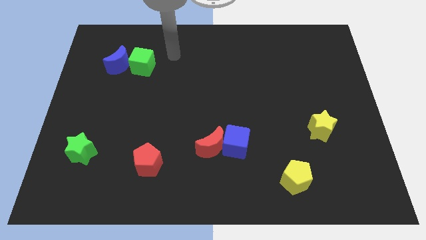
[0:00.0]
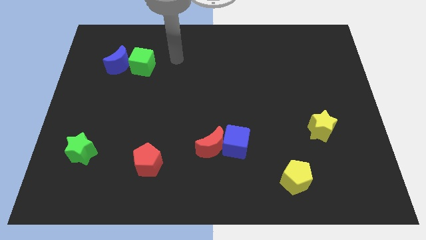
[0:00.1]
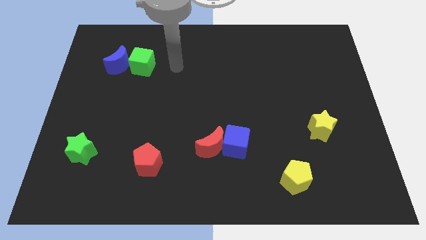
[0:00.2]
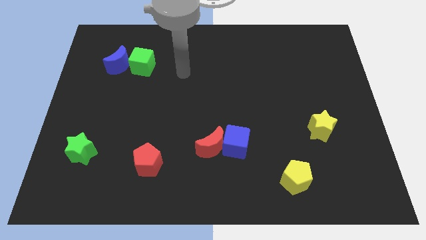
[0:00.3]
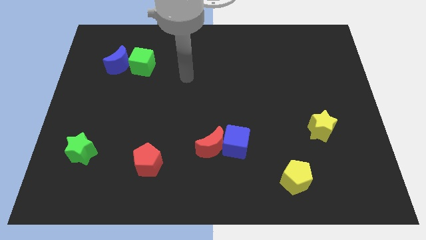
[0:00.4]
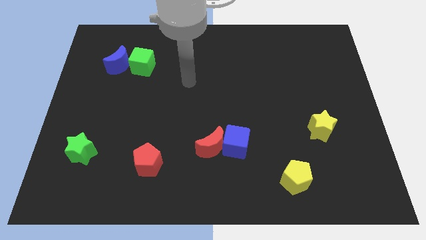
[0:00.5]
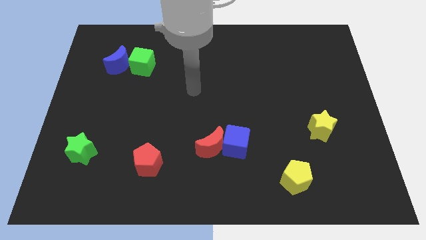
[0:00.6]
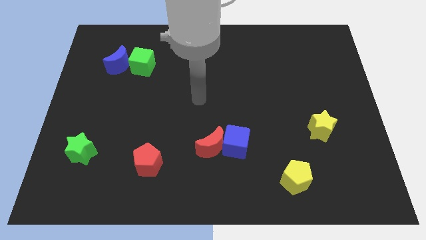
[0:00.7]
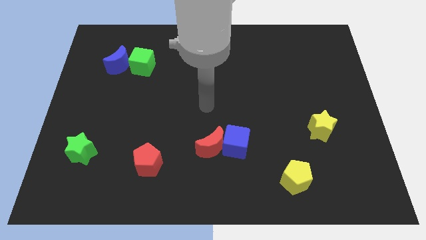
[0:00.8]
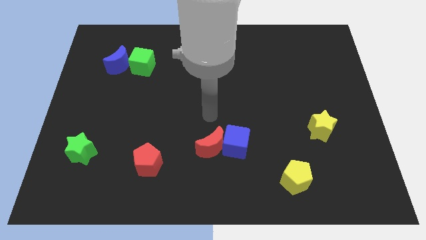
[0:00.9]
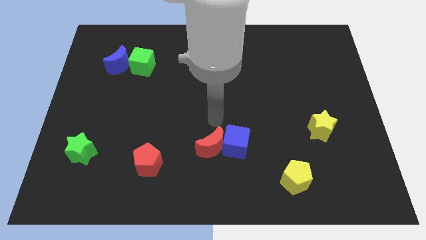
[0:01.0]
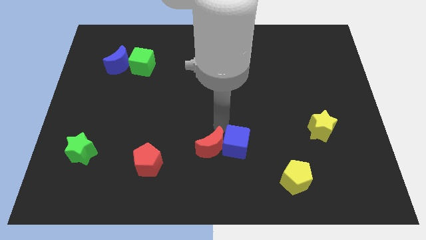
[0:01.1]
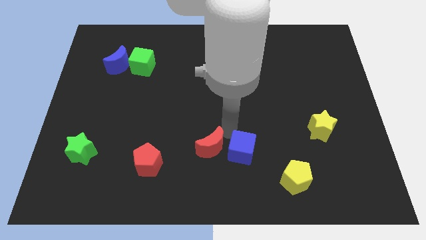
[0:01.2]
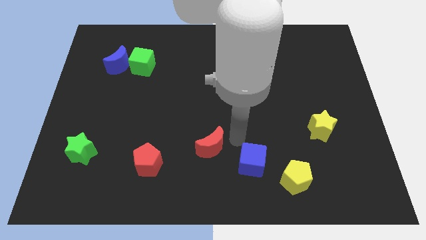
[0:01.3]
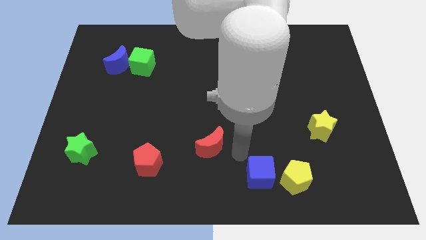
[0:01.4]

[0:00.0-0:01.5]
pull the red moon apart from the blue cube

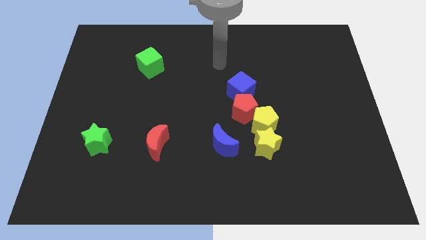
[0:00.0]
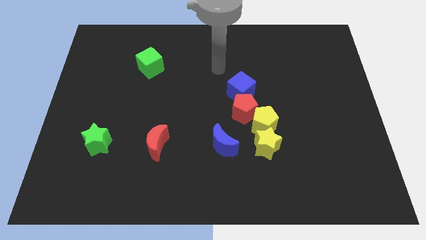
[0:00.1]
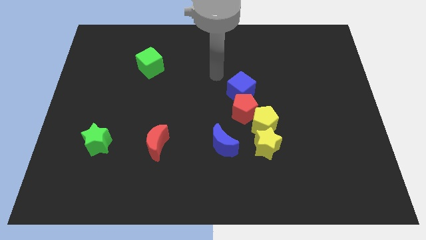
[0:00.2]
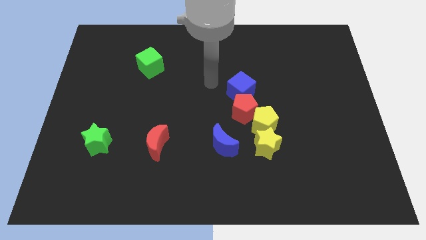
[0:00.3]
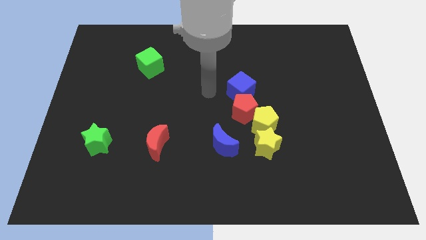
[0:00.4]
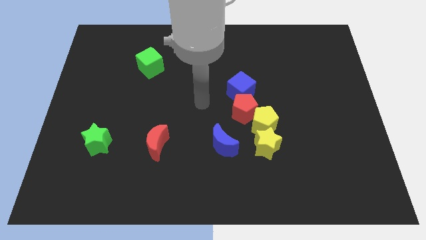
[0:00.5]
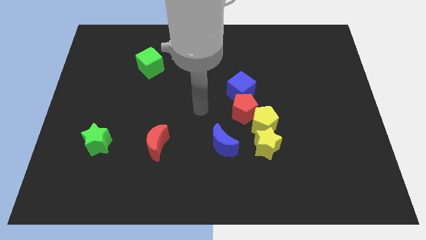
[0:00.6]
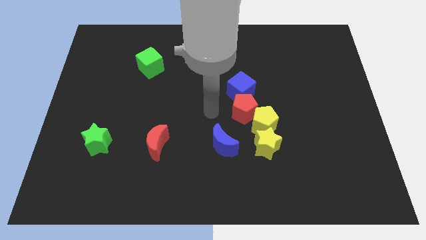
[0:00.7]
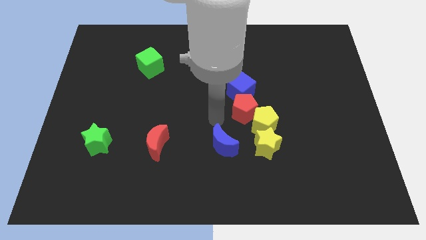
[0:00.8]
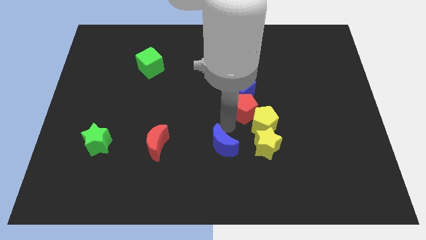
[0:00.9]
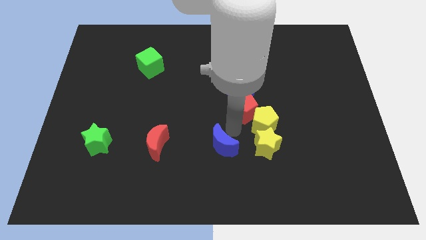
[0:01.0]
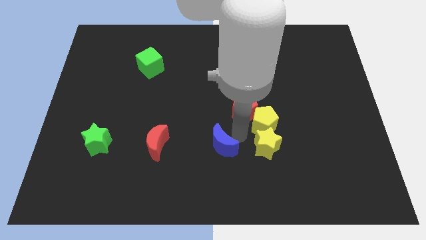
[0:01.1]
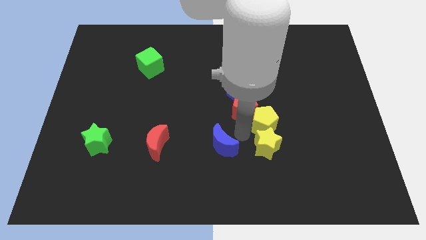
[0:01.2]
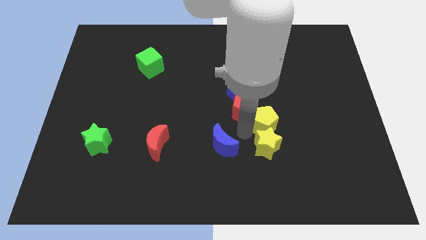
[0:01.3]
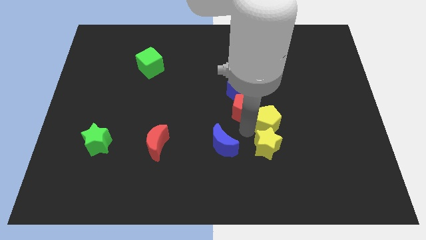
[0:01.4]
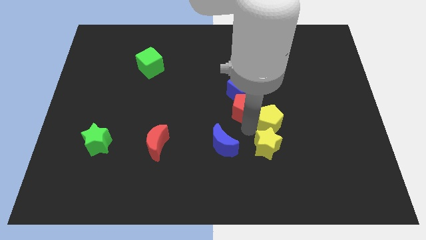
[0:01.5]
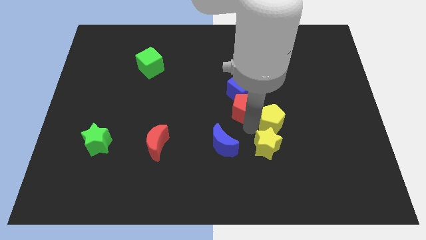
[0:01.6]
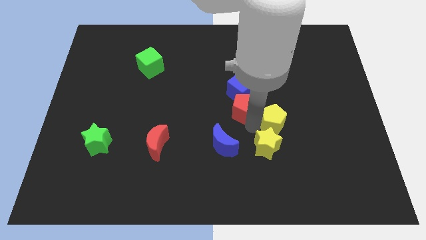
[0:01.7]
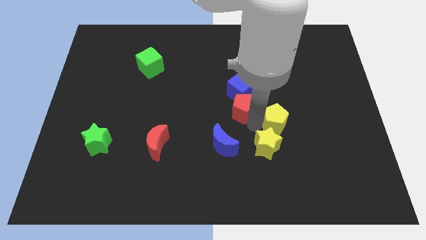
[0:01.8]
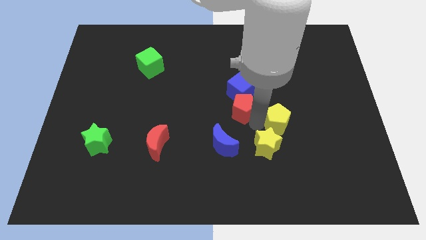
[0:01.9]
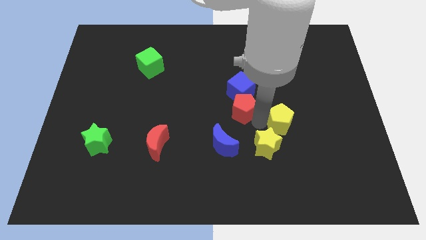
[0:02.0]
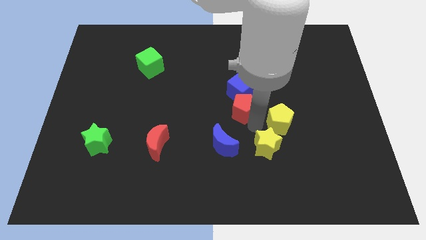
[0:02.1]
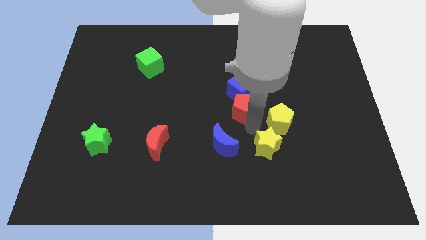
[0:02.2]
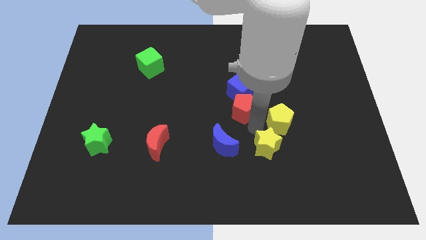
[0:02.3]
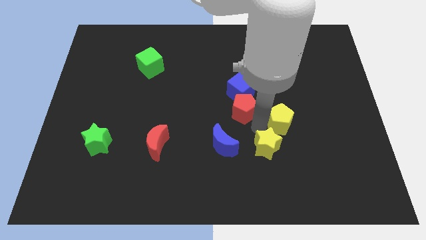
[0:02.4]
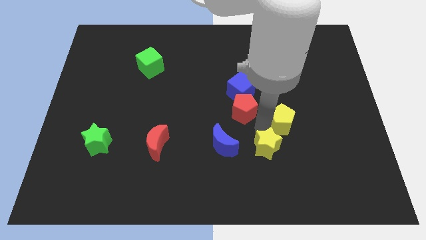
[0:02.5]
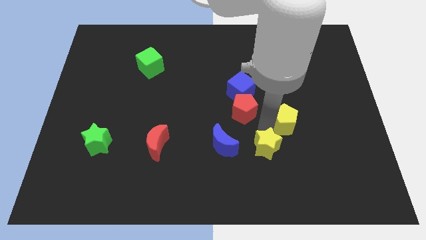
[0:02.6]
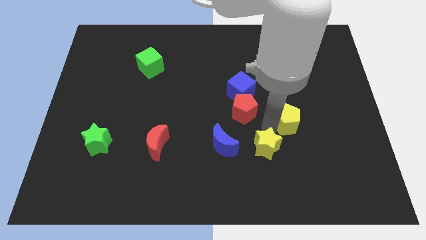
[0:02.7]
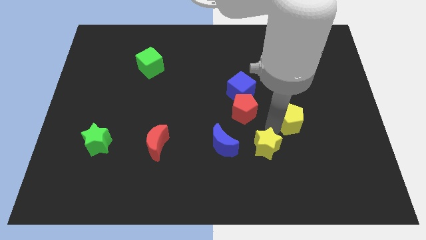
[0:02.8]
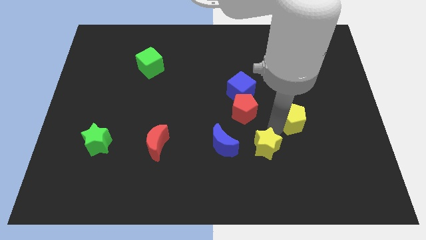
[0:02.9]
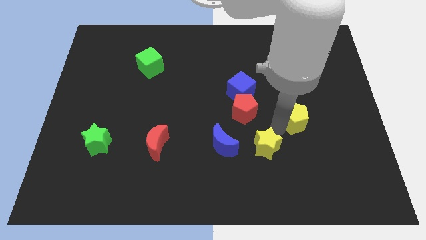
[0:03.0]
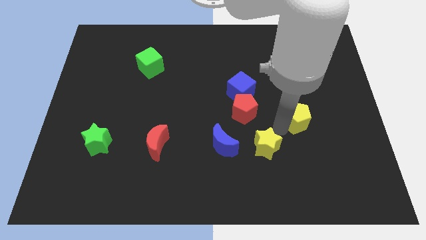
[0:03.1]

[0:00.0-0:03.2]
pull the yellow pentagon apart from the yellow star and red pentagon

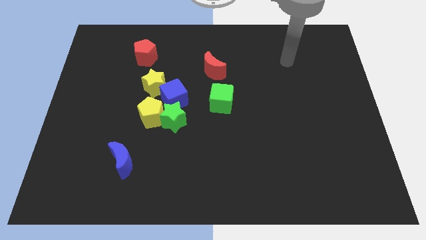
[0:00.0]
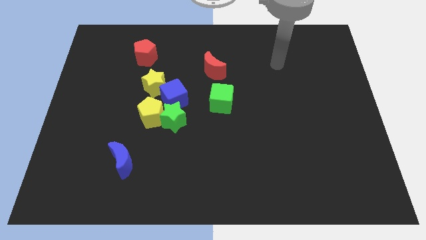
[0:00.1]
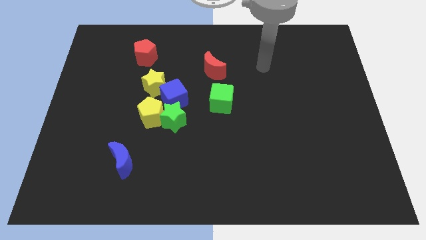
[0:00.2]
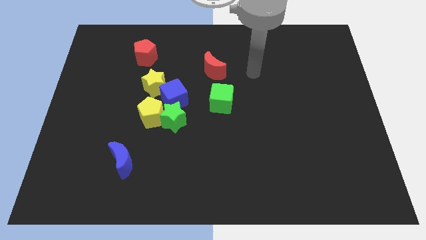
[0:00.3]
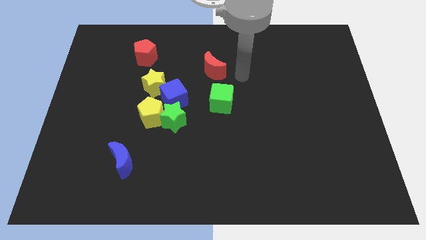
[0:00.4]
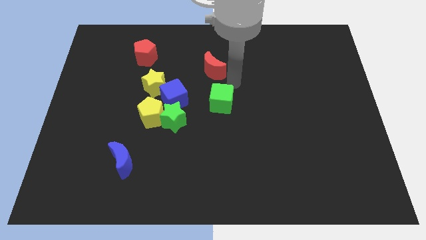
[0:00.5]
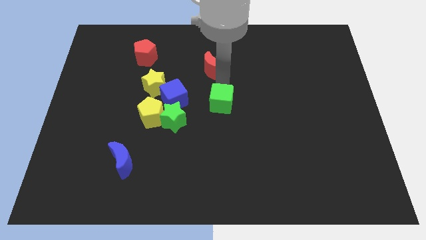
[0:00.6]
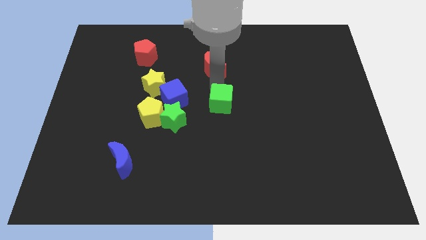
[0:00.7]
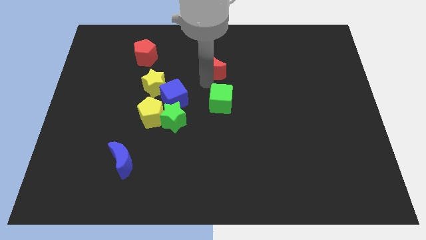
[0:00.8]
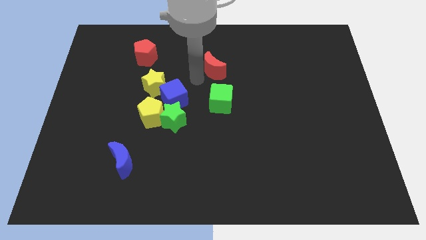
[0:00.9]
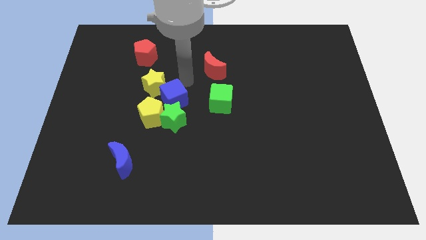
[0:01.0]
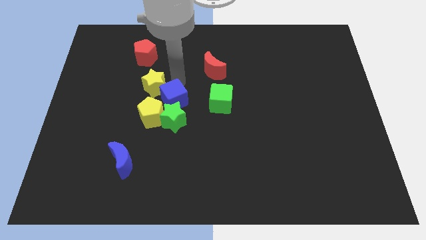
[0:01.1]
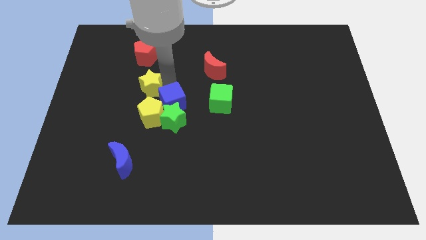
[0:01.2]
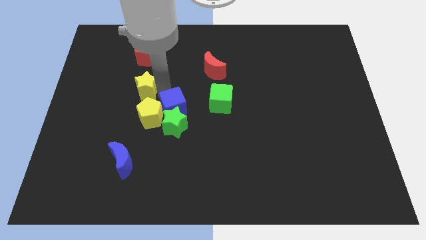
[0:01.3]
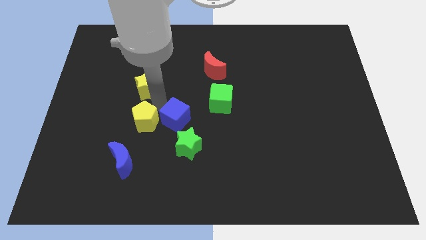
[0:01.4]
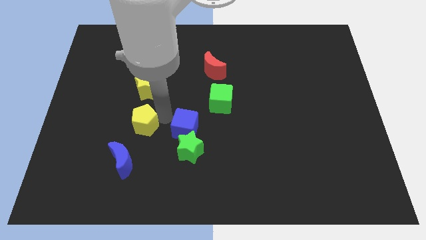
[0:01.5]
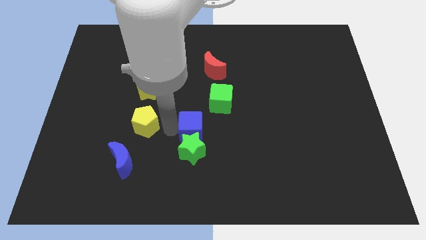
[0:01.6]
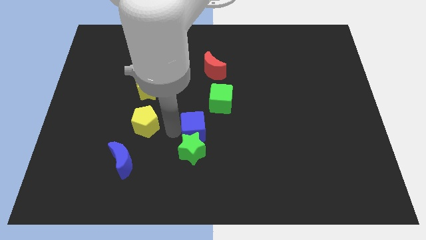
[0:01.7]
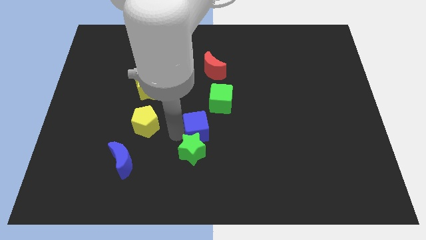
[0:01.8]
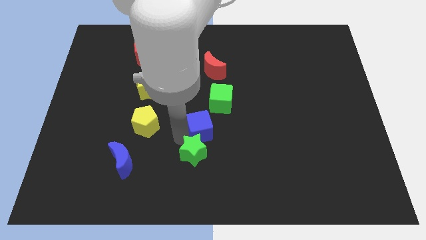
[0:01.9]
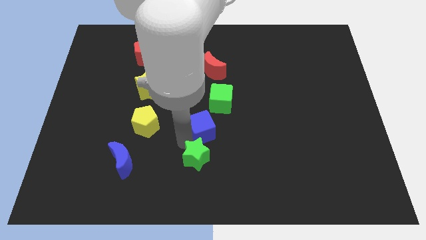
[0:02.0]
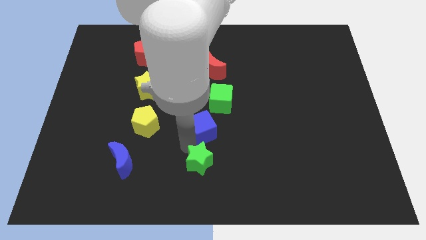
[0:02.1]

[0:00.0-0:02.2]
separate the green star from the yellow pentagon and blue cube

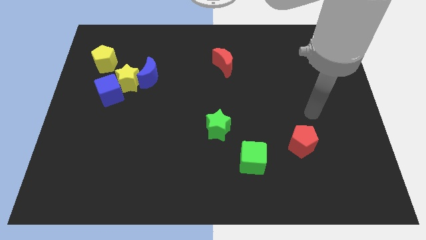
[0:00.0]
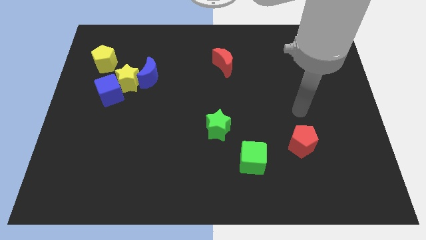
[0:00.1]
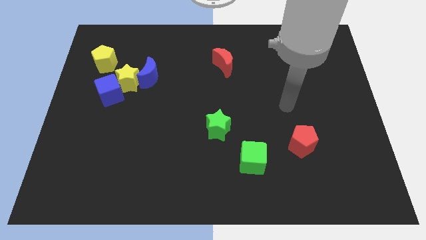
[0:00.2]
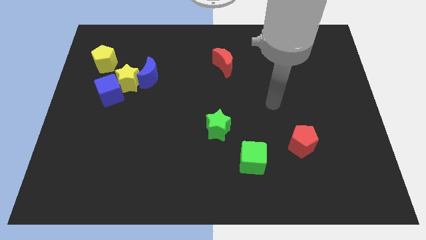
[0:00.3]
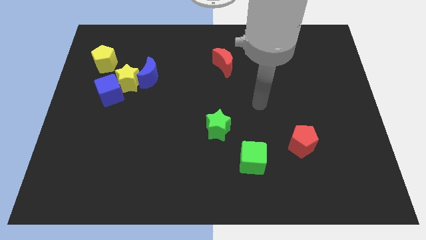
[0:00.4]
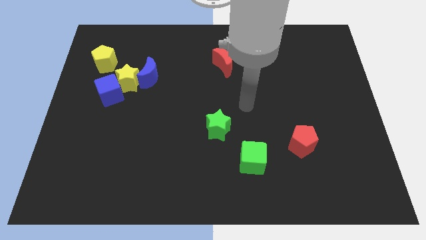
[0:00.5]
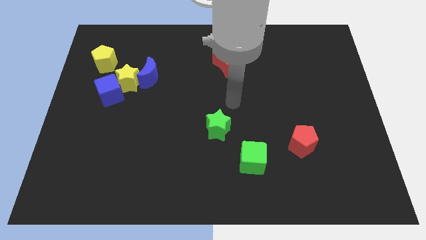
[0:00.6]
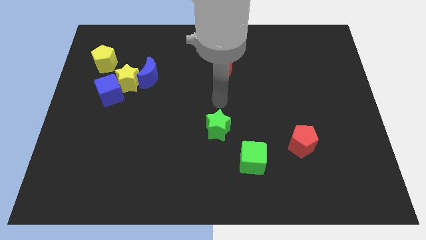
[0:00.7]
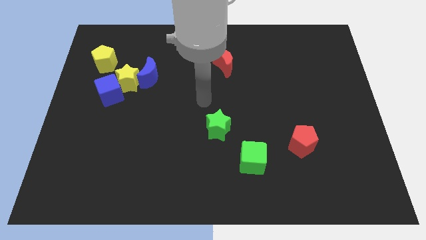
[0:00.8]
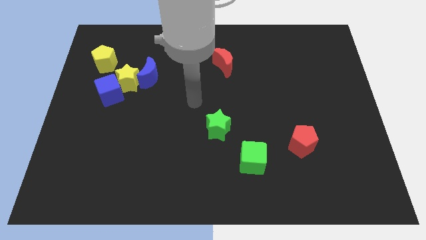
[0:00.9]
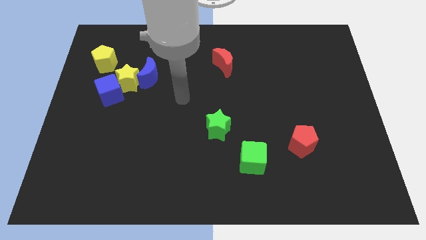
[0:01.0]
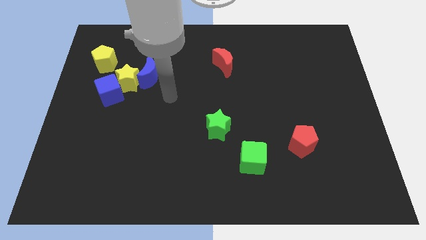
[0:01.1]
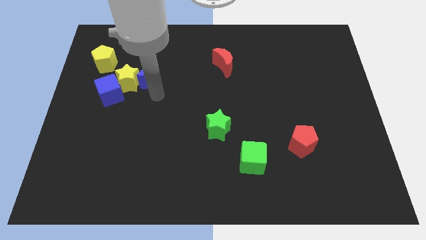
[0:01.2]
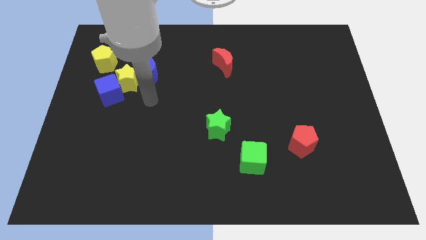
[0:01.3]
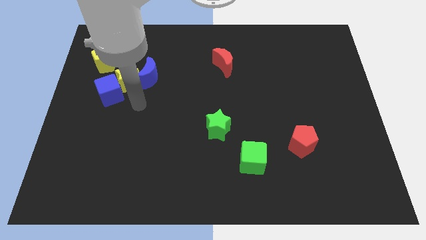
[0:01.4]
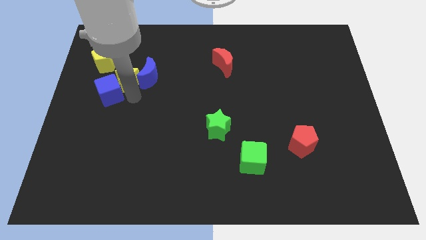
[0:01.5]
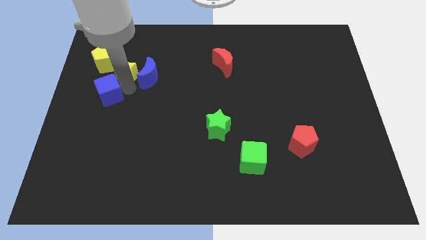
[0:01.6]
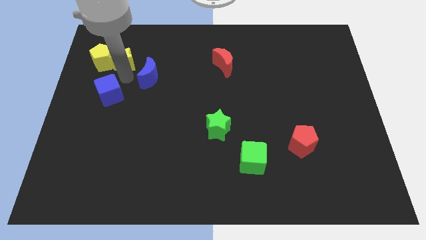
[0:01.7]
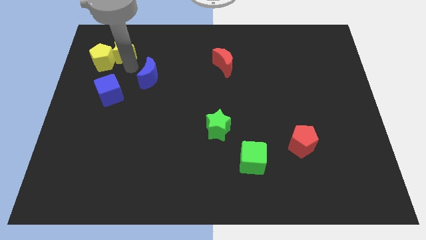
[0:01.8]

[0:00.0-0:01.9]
move the blue moon away from the yellow star

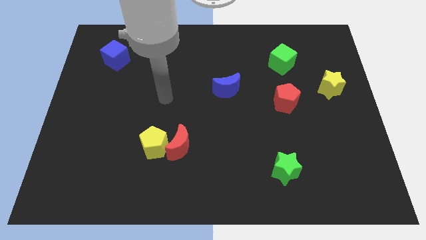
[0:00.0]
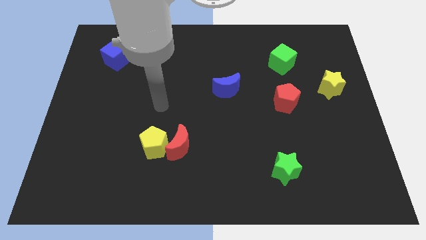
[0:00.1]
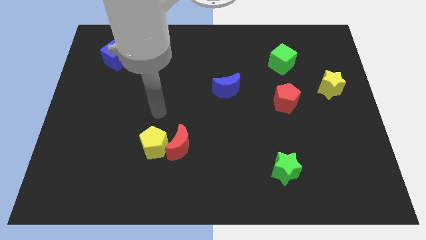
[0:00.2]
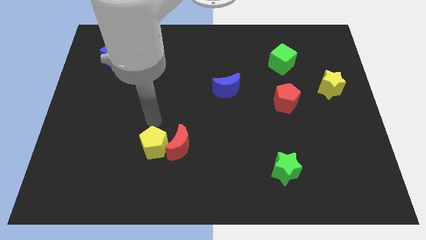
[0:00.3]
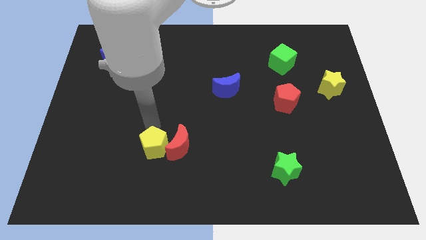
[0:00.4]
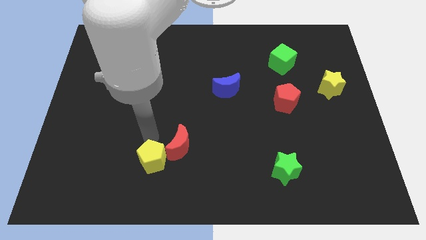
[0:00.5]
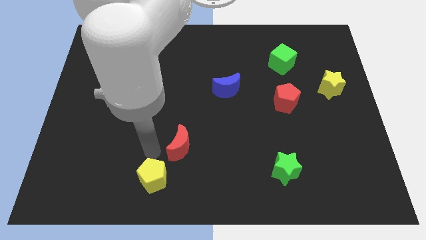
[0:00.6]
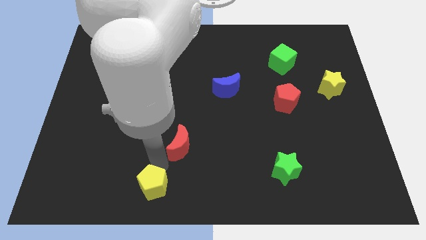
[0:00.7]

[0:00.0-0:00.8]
move the red moon away from the yellow pentagon
